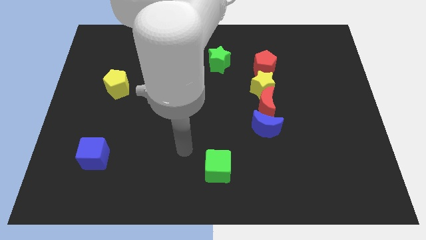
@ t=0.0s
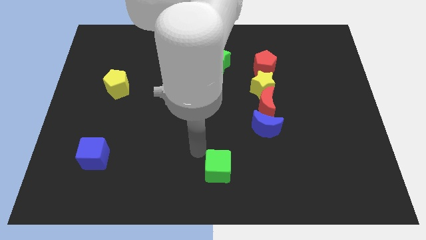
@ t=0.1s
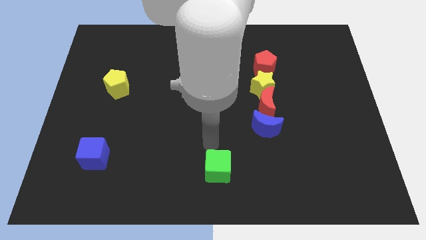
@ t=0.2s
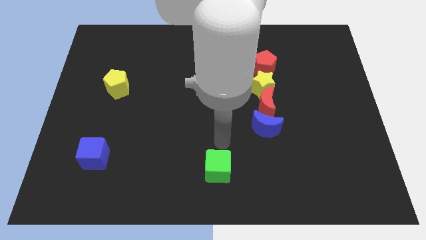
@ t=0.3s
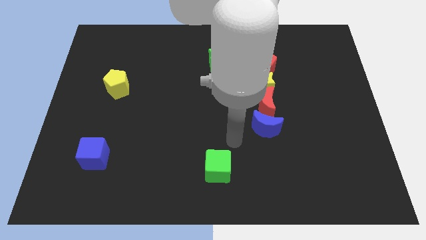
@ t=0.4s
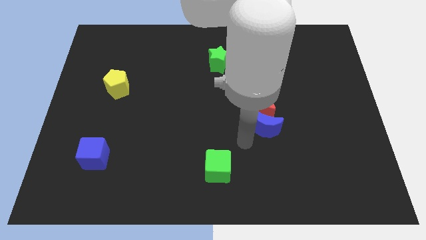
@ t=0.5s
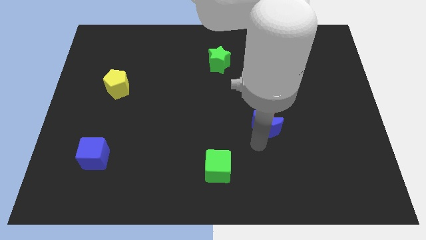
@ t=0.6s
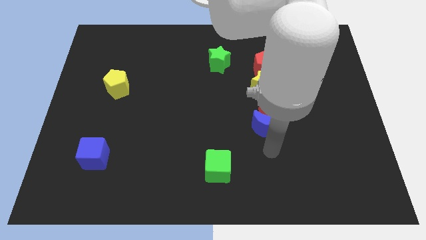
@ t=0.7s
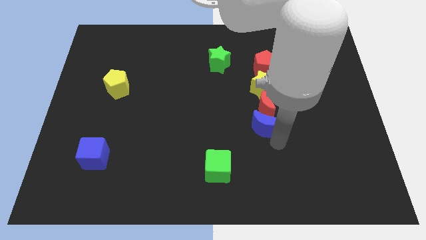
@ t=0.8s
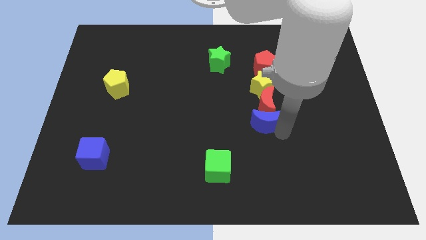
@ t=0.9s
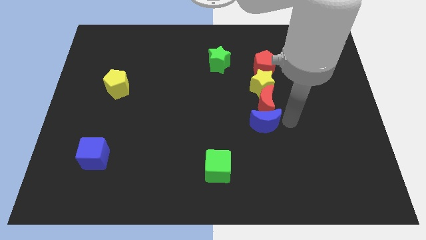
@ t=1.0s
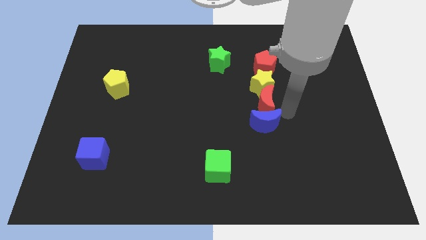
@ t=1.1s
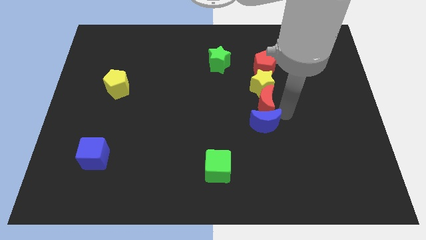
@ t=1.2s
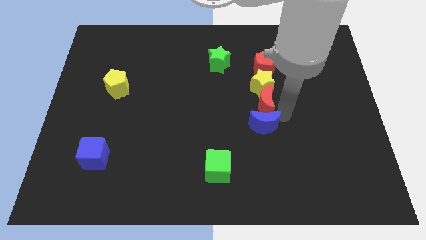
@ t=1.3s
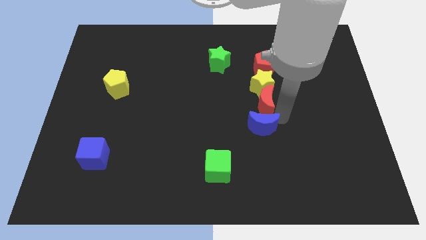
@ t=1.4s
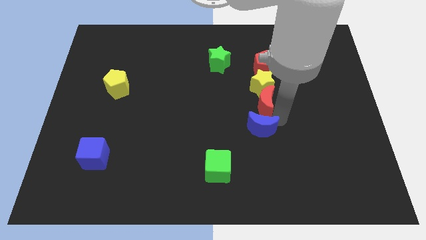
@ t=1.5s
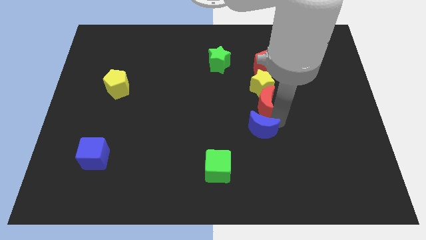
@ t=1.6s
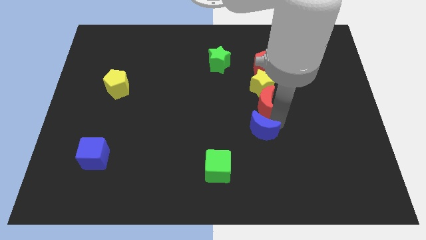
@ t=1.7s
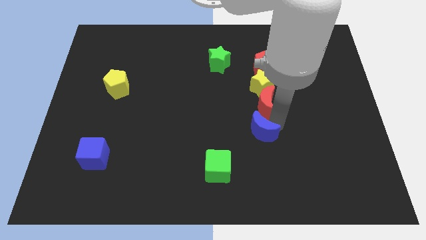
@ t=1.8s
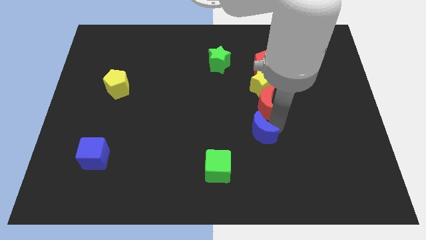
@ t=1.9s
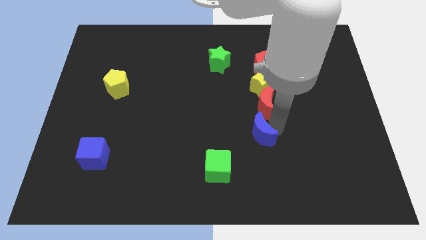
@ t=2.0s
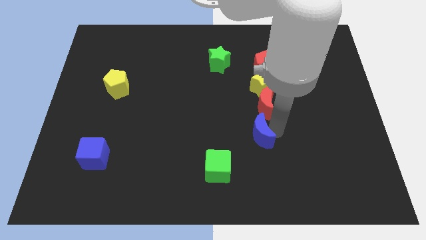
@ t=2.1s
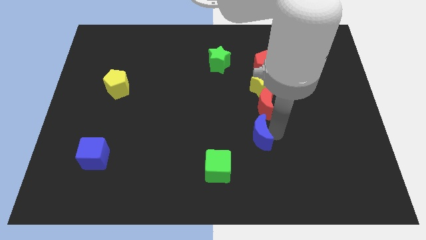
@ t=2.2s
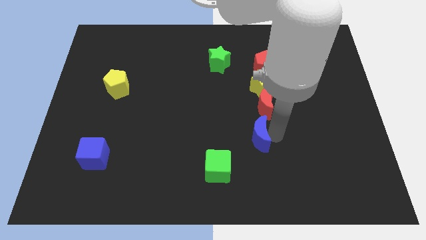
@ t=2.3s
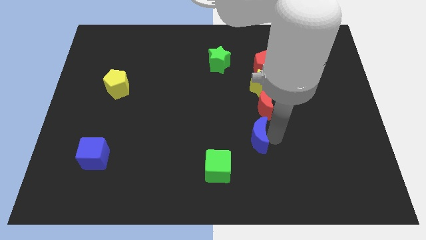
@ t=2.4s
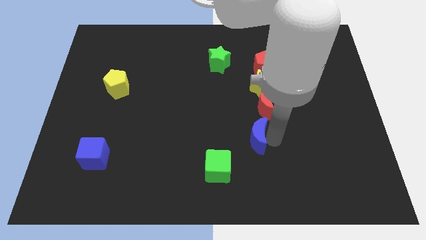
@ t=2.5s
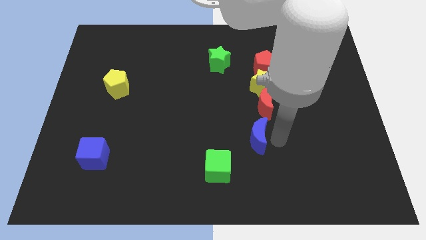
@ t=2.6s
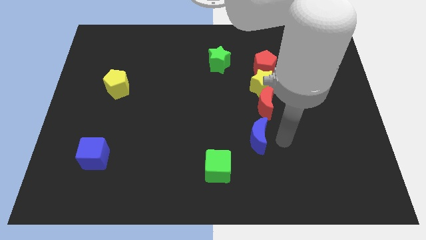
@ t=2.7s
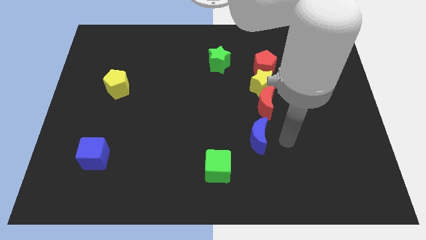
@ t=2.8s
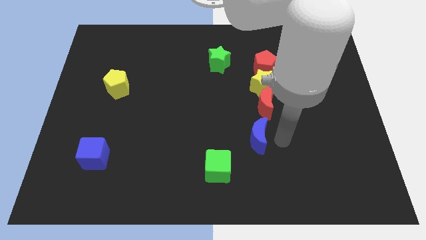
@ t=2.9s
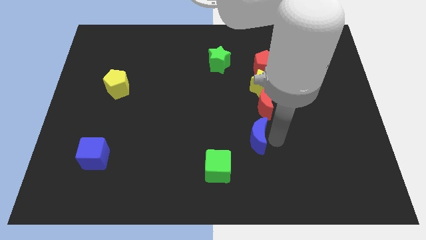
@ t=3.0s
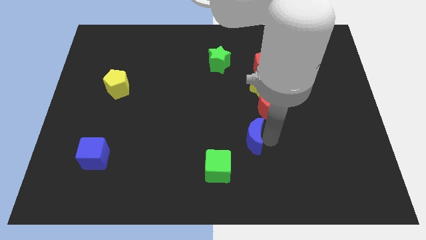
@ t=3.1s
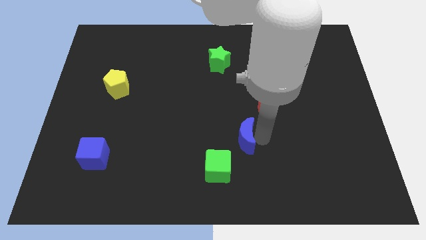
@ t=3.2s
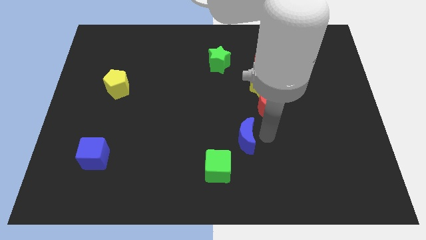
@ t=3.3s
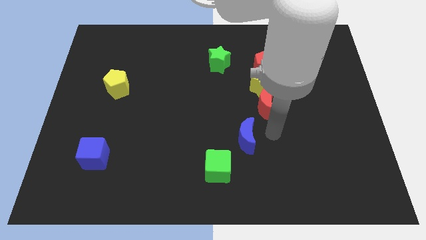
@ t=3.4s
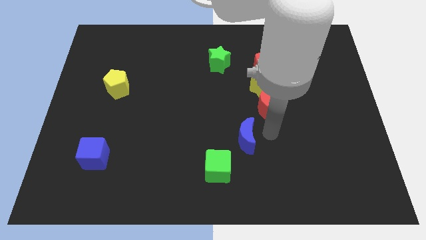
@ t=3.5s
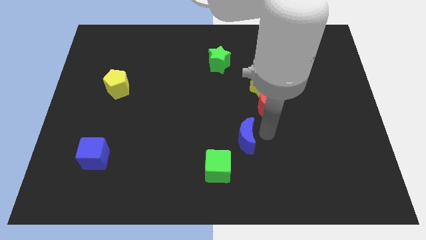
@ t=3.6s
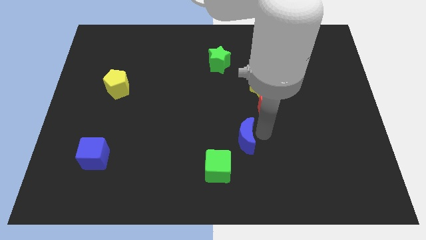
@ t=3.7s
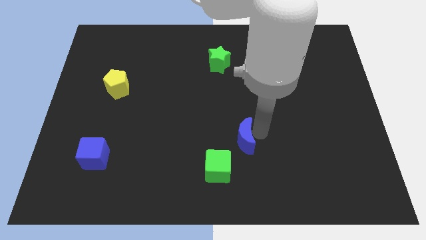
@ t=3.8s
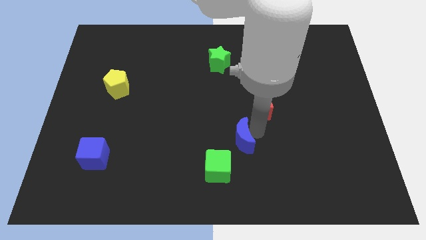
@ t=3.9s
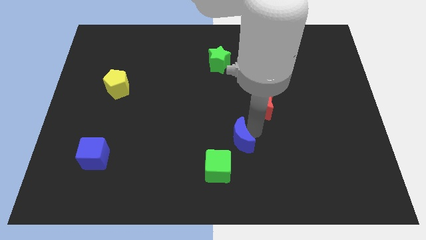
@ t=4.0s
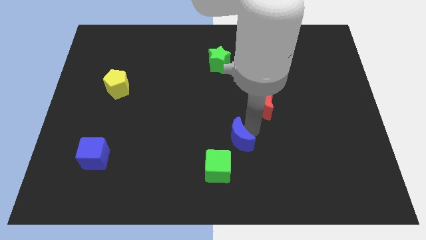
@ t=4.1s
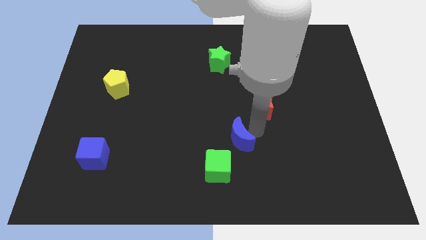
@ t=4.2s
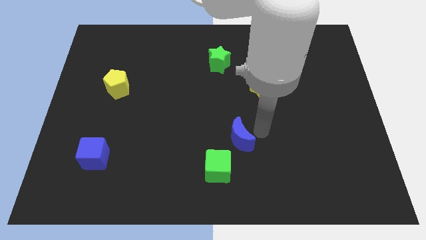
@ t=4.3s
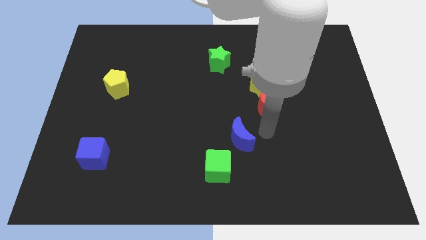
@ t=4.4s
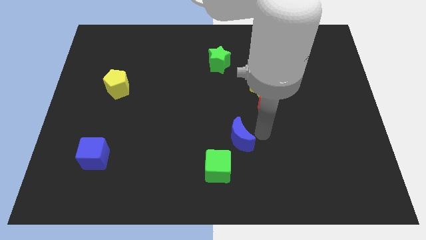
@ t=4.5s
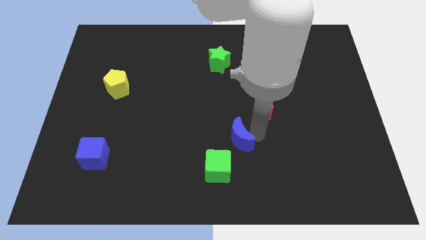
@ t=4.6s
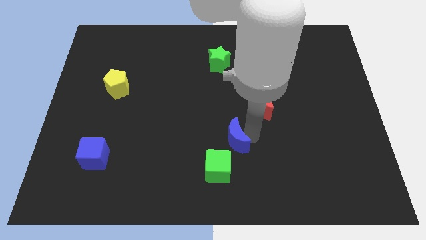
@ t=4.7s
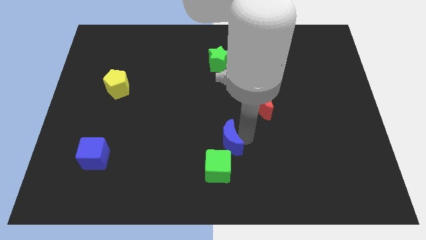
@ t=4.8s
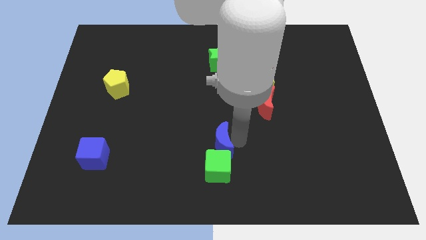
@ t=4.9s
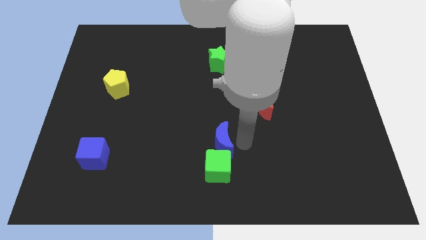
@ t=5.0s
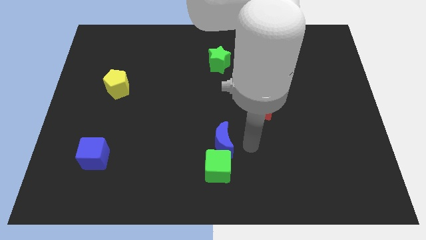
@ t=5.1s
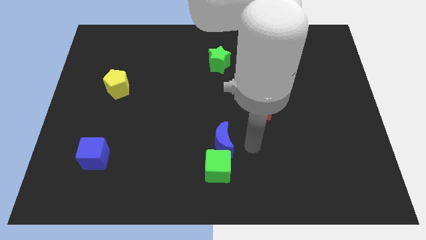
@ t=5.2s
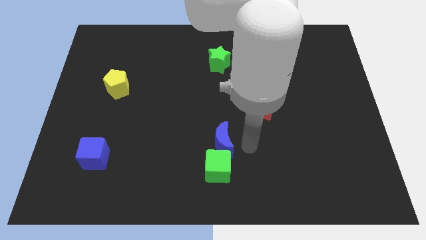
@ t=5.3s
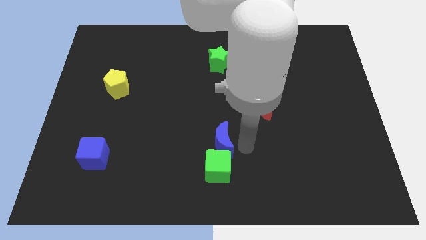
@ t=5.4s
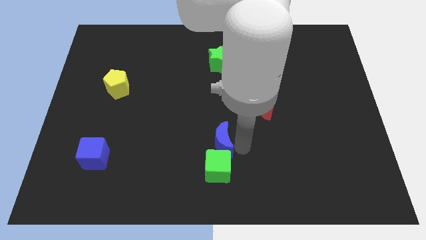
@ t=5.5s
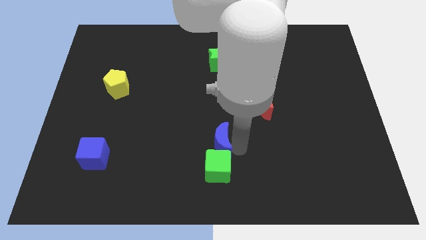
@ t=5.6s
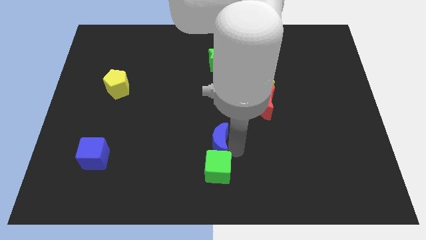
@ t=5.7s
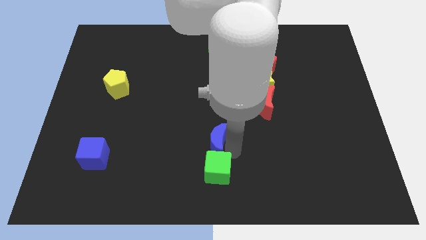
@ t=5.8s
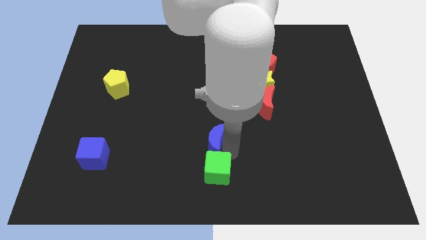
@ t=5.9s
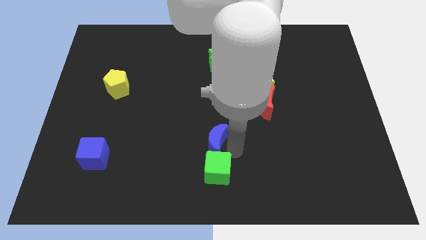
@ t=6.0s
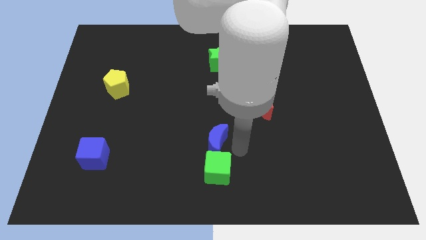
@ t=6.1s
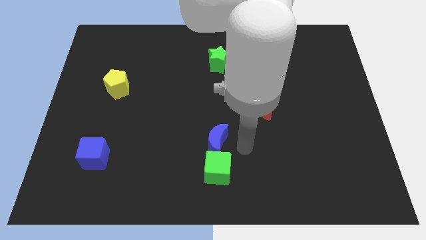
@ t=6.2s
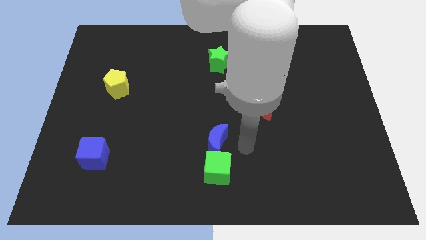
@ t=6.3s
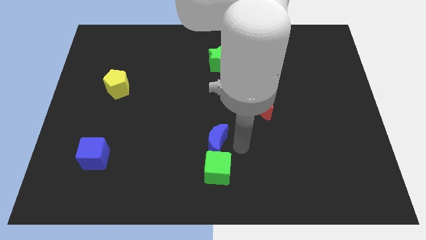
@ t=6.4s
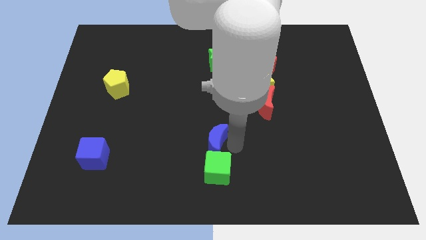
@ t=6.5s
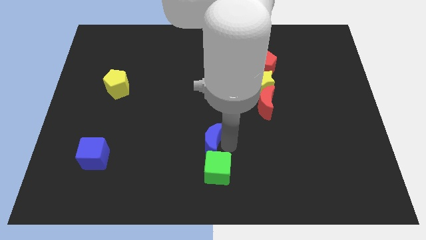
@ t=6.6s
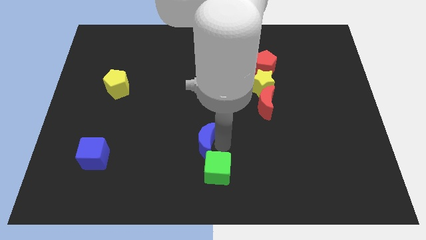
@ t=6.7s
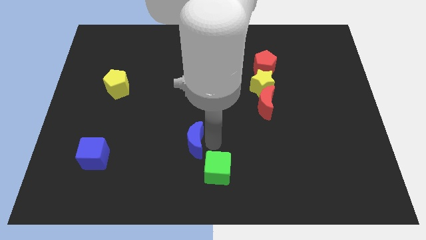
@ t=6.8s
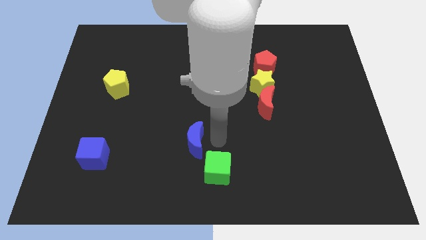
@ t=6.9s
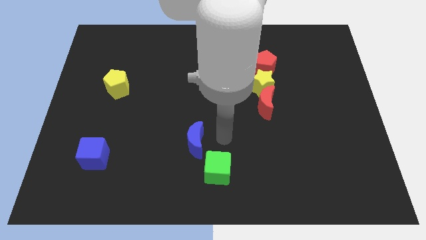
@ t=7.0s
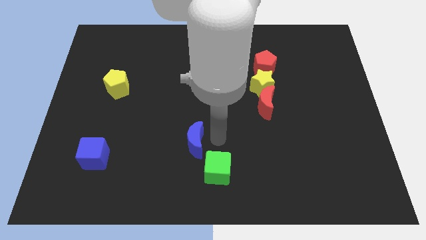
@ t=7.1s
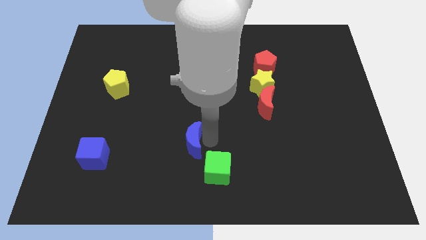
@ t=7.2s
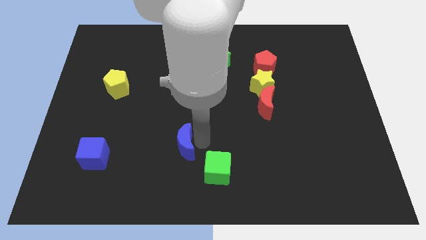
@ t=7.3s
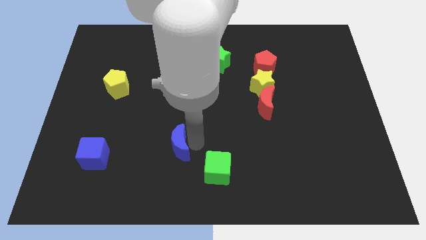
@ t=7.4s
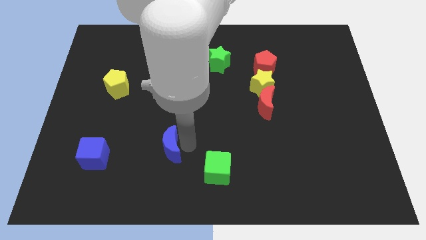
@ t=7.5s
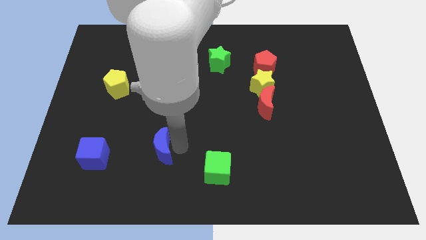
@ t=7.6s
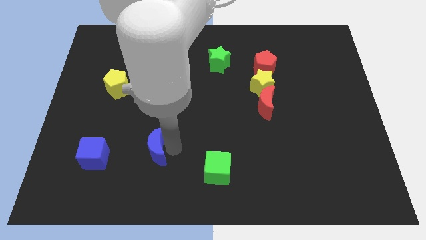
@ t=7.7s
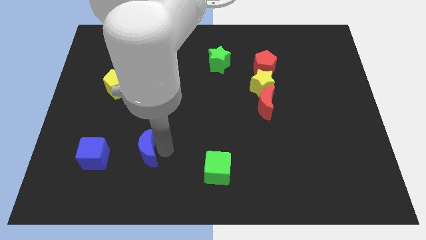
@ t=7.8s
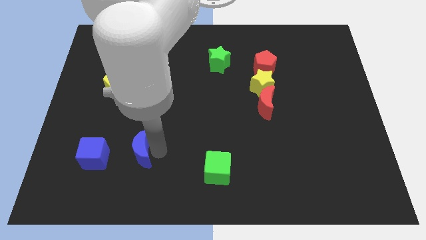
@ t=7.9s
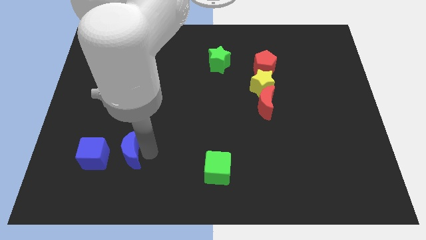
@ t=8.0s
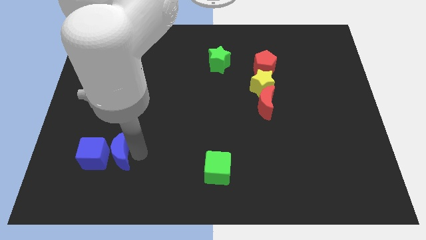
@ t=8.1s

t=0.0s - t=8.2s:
slide the blue moon next to the blue cube
